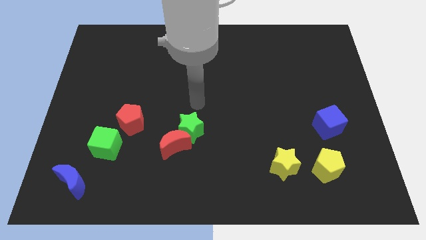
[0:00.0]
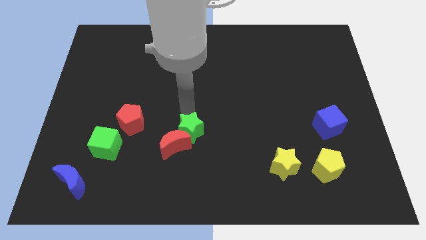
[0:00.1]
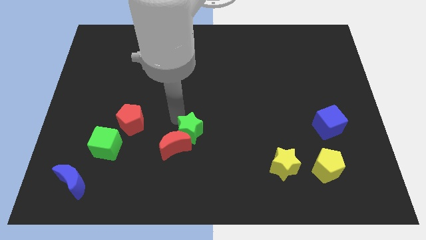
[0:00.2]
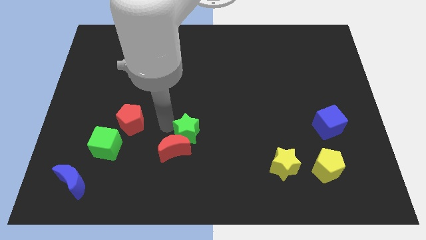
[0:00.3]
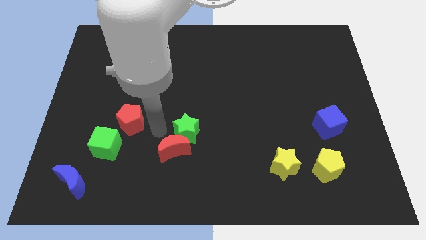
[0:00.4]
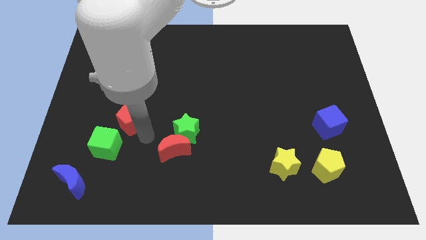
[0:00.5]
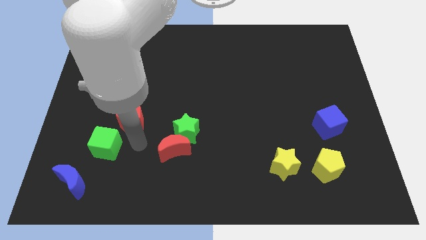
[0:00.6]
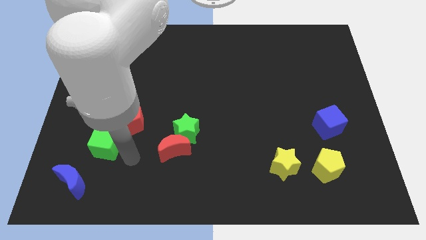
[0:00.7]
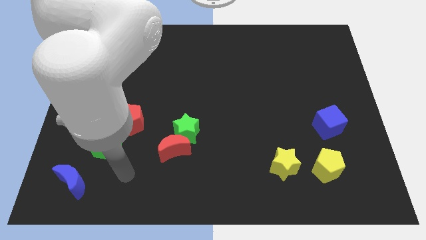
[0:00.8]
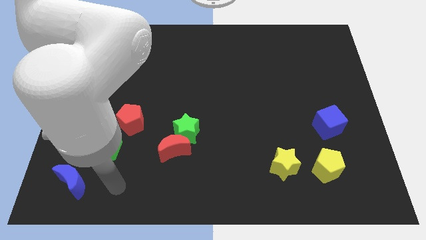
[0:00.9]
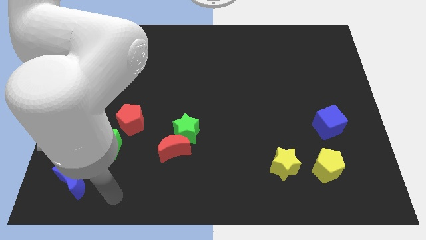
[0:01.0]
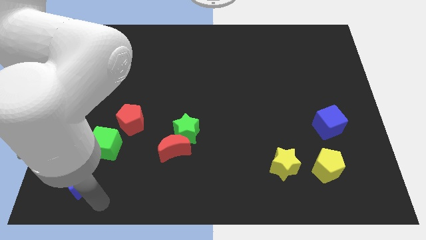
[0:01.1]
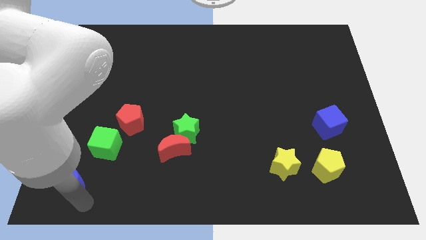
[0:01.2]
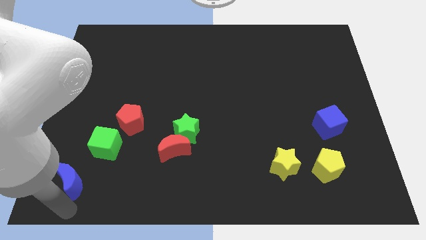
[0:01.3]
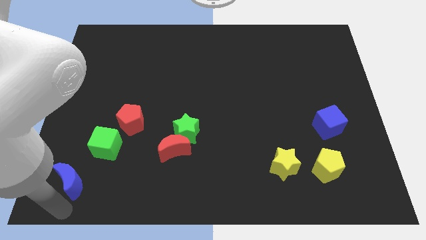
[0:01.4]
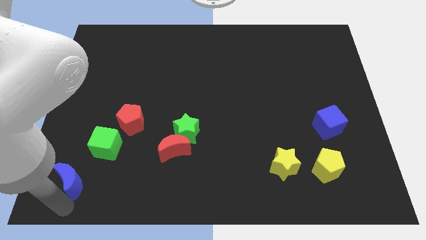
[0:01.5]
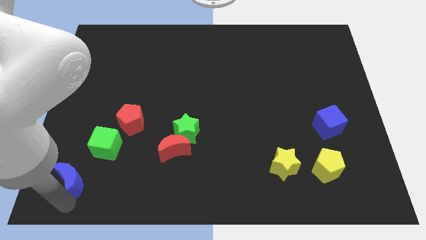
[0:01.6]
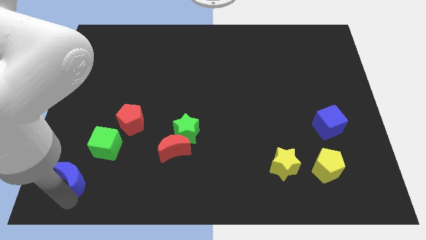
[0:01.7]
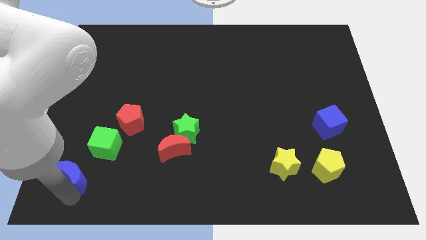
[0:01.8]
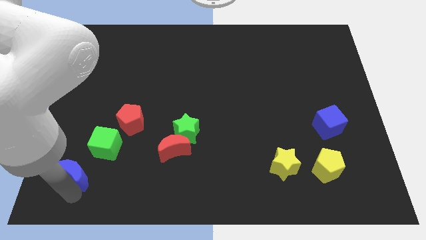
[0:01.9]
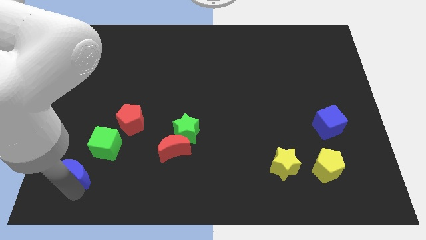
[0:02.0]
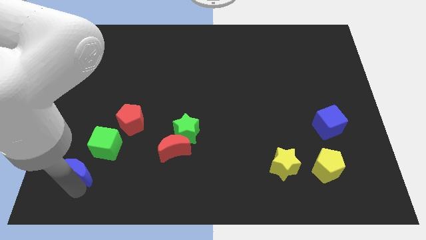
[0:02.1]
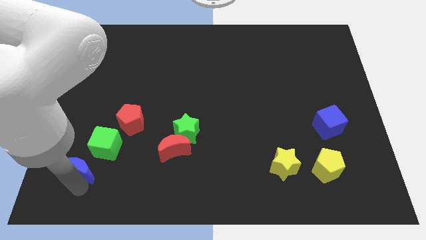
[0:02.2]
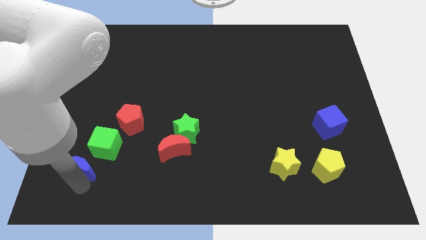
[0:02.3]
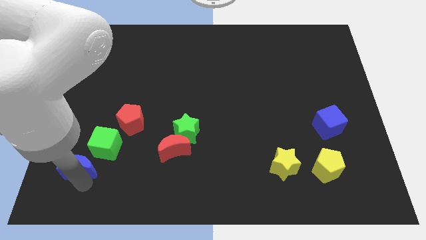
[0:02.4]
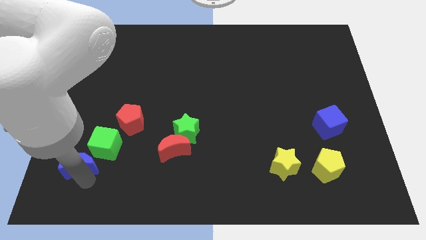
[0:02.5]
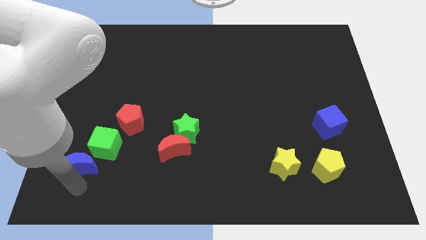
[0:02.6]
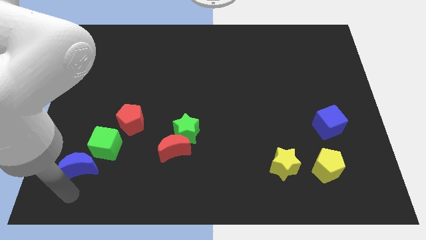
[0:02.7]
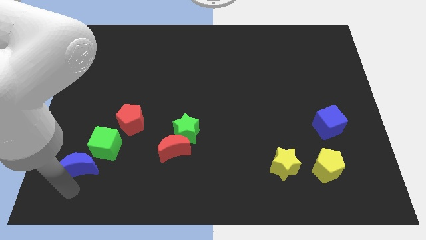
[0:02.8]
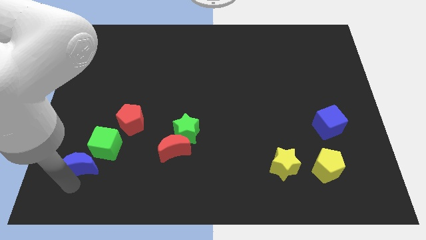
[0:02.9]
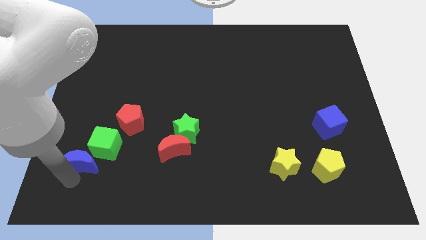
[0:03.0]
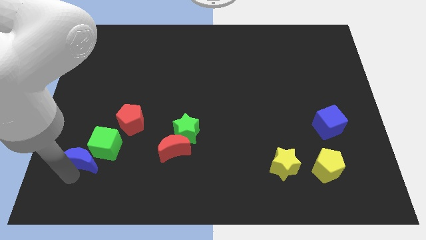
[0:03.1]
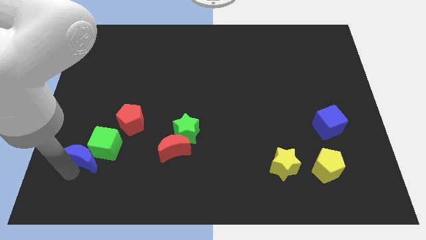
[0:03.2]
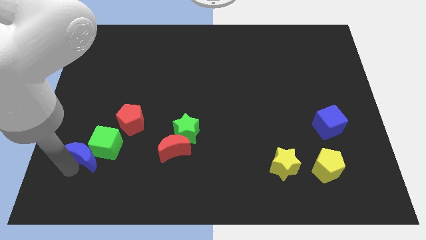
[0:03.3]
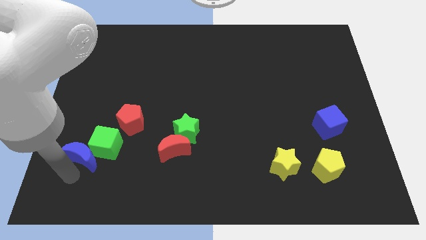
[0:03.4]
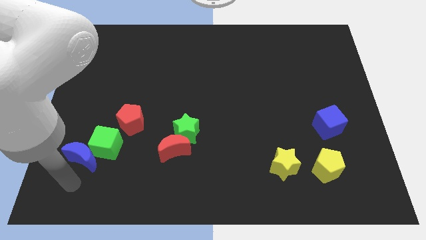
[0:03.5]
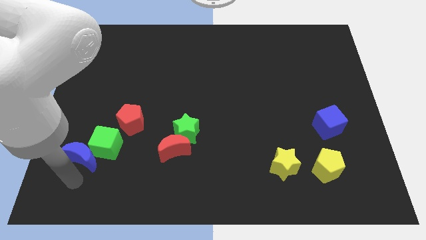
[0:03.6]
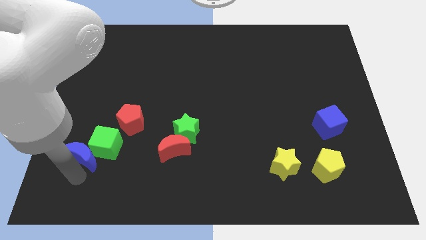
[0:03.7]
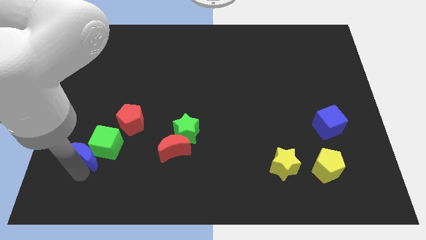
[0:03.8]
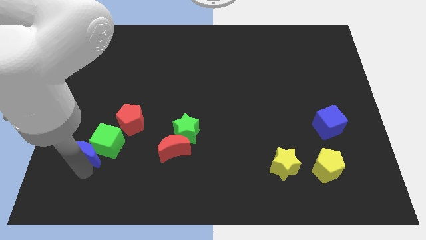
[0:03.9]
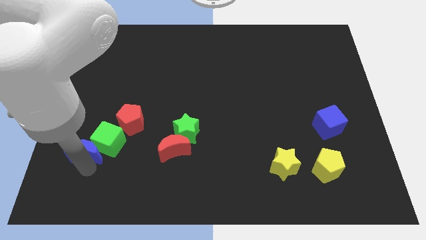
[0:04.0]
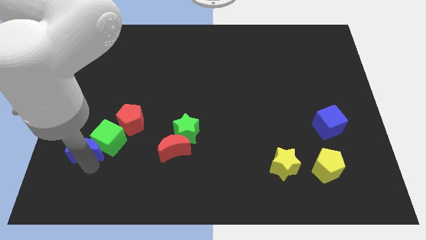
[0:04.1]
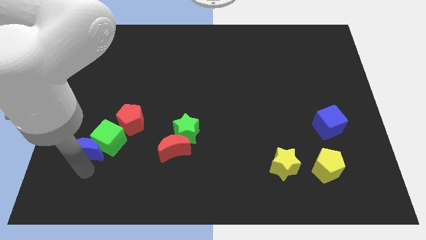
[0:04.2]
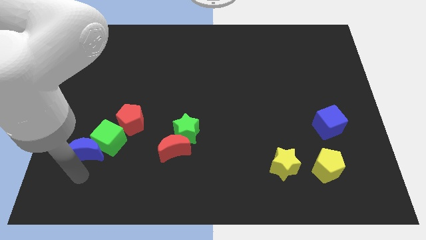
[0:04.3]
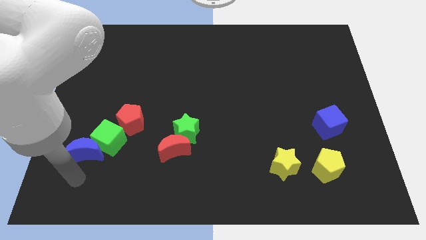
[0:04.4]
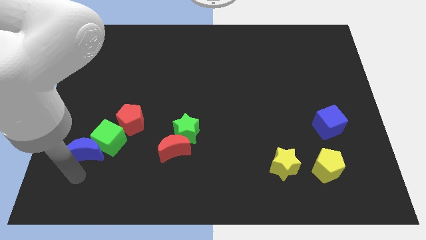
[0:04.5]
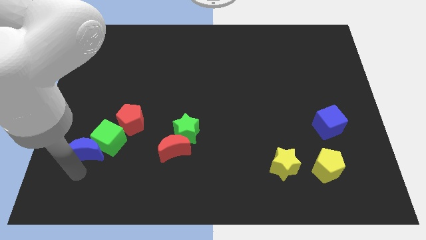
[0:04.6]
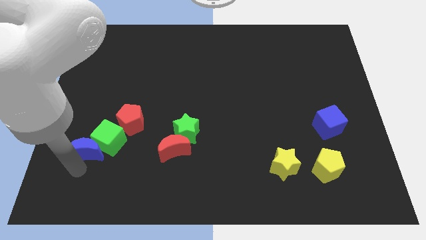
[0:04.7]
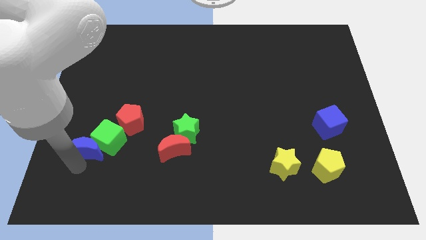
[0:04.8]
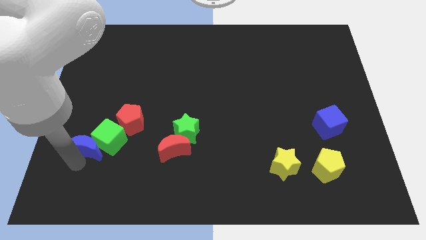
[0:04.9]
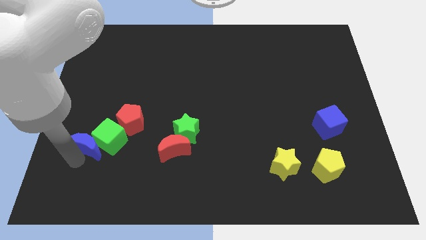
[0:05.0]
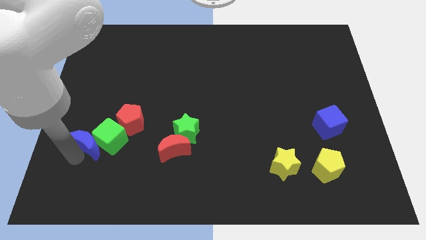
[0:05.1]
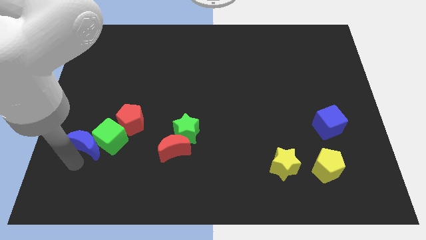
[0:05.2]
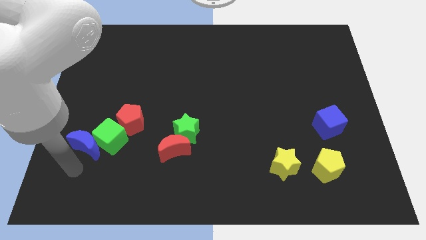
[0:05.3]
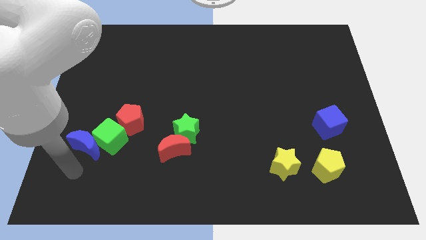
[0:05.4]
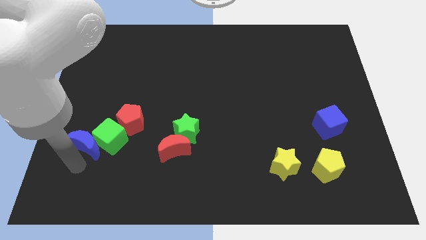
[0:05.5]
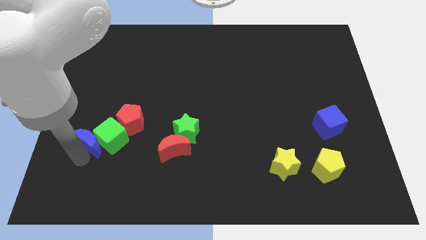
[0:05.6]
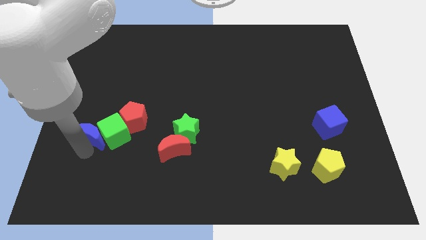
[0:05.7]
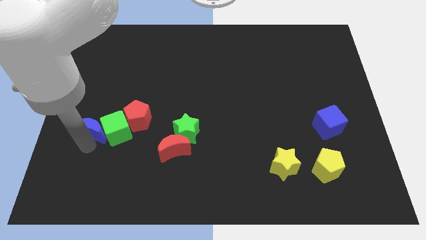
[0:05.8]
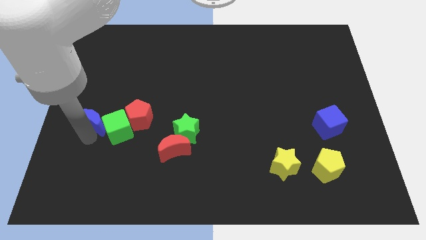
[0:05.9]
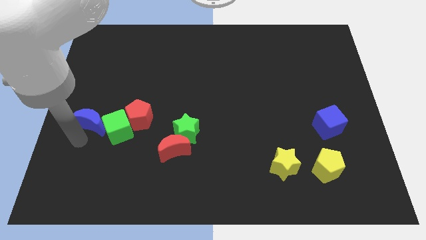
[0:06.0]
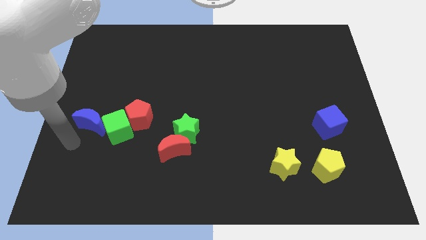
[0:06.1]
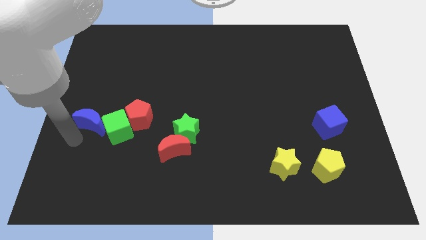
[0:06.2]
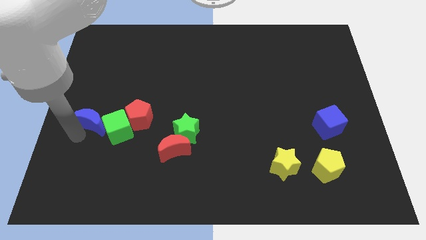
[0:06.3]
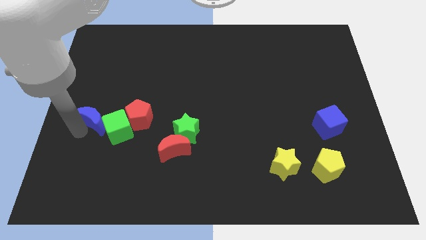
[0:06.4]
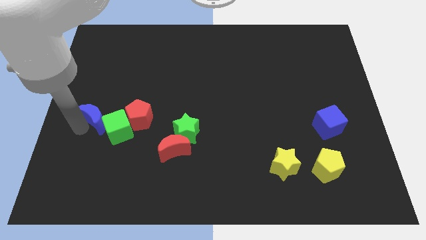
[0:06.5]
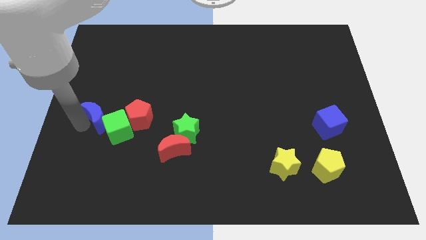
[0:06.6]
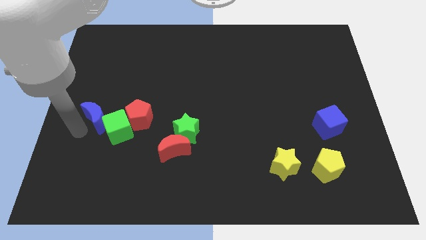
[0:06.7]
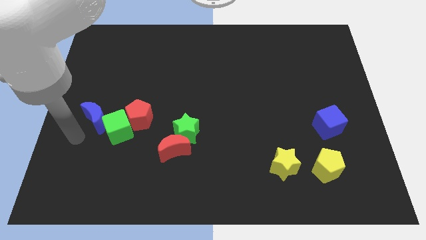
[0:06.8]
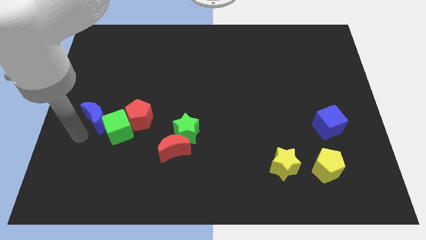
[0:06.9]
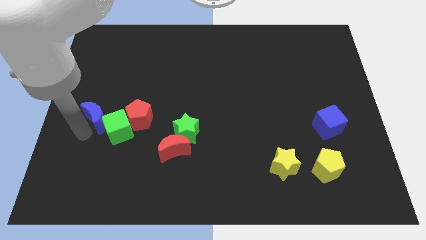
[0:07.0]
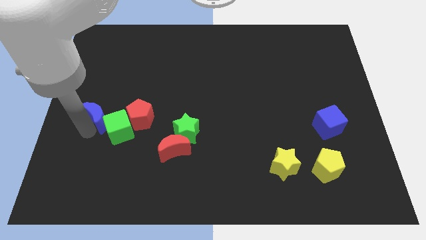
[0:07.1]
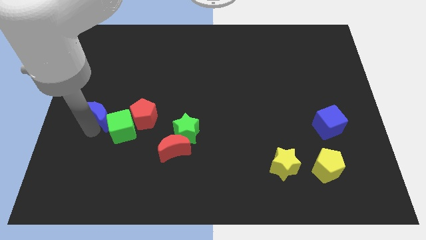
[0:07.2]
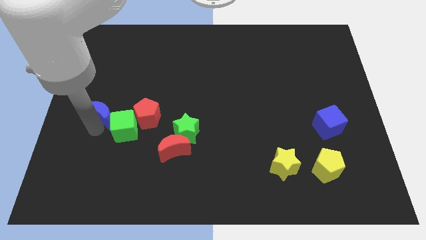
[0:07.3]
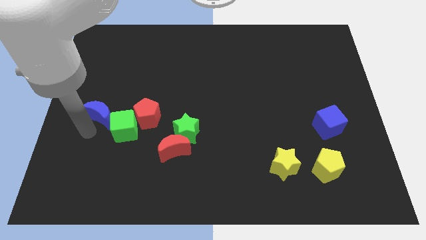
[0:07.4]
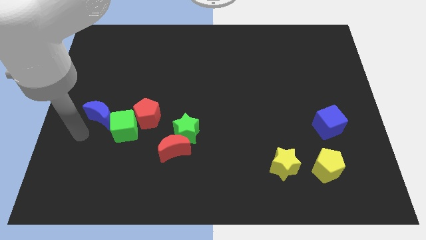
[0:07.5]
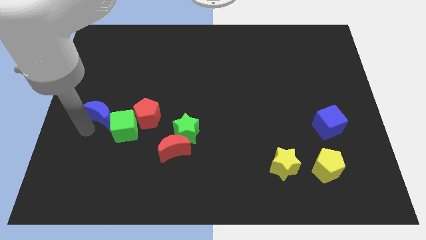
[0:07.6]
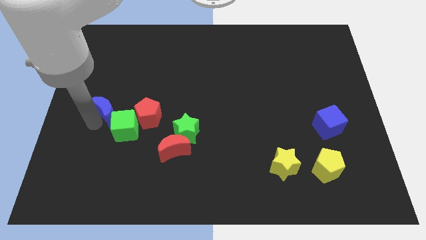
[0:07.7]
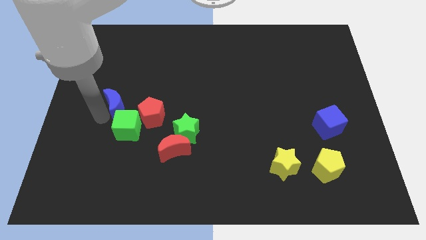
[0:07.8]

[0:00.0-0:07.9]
put the blue moon above the green cube

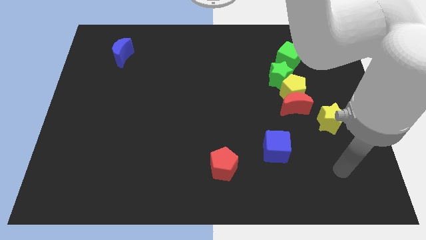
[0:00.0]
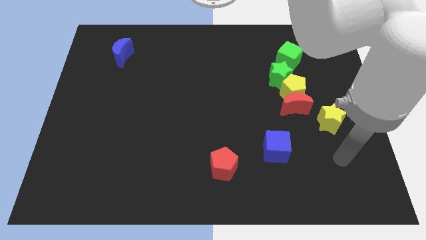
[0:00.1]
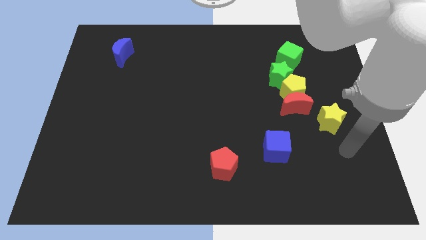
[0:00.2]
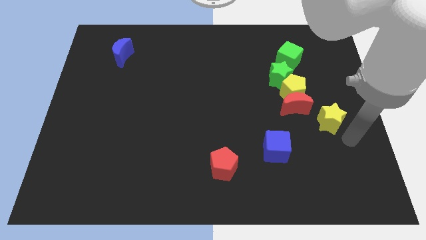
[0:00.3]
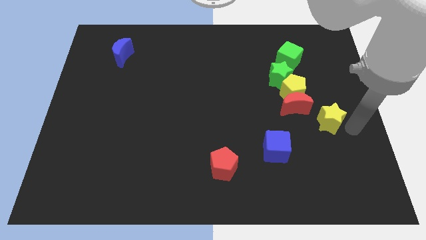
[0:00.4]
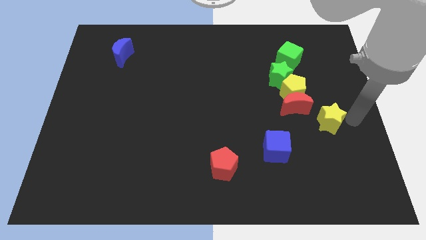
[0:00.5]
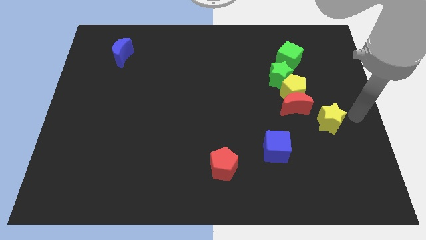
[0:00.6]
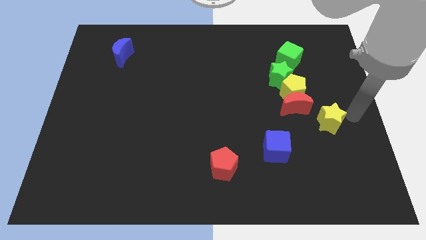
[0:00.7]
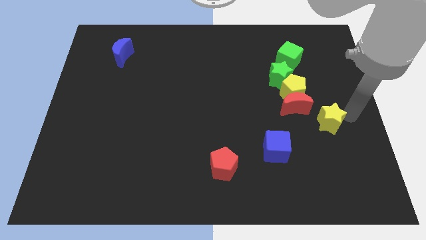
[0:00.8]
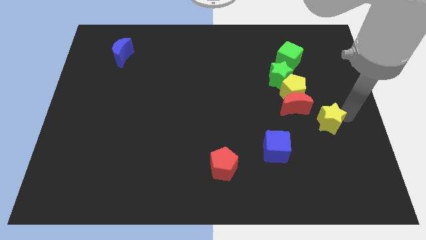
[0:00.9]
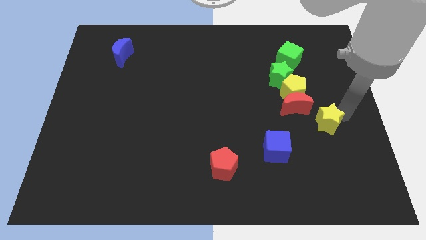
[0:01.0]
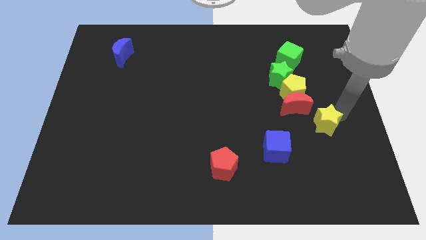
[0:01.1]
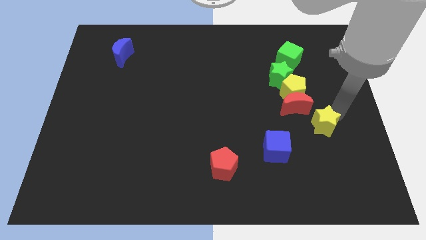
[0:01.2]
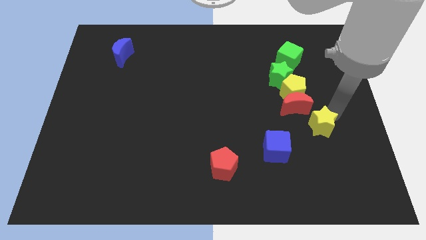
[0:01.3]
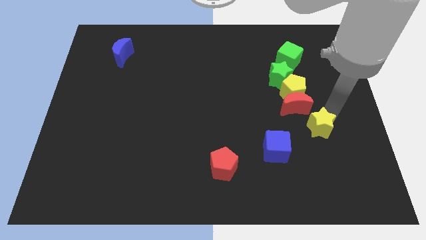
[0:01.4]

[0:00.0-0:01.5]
push the yellow star to the bottom of the yellow pentagon
